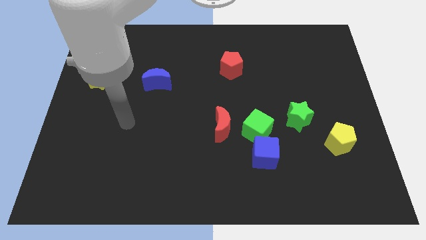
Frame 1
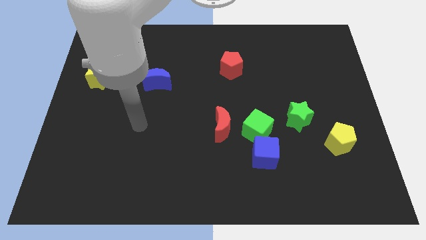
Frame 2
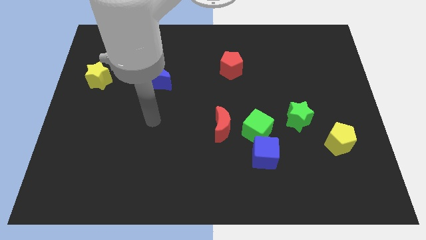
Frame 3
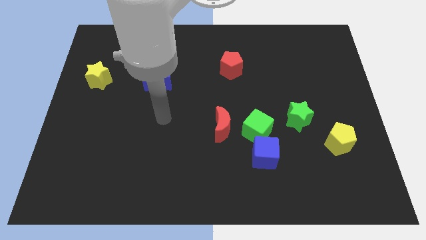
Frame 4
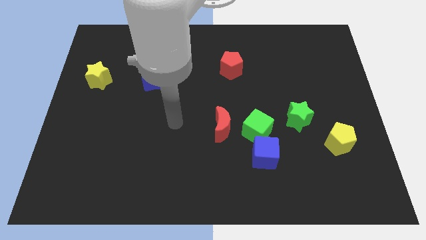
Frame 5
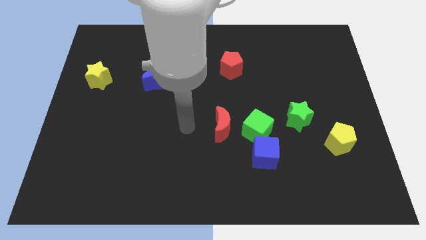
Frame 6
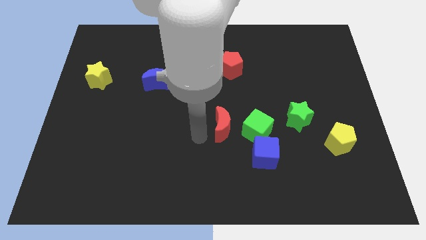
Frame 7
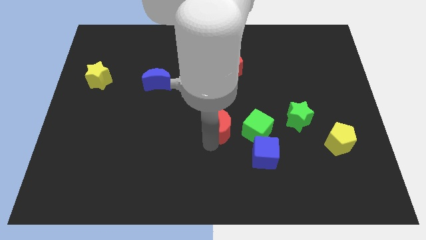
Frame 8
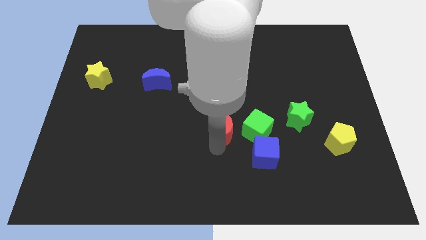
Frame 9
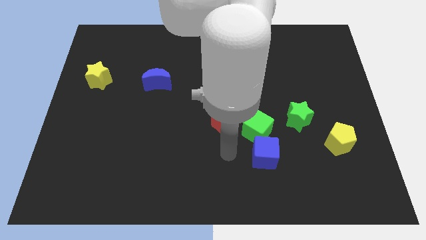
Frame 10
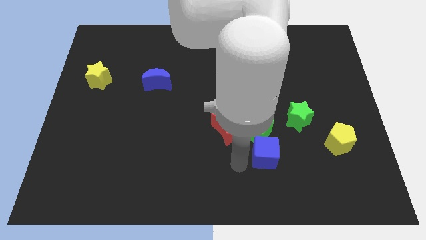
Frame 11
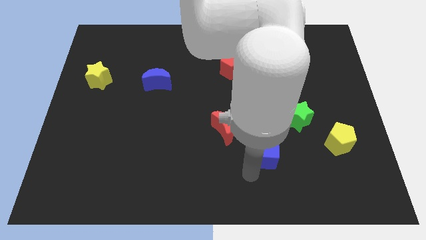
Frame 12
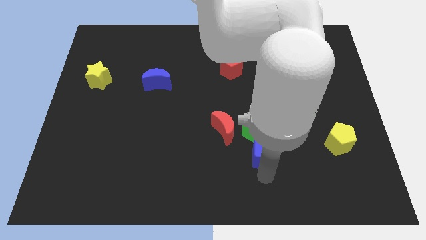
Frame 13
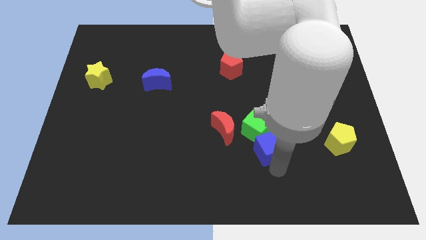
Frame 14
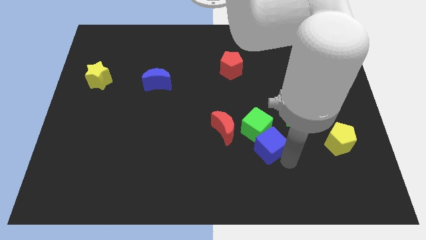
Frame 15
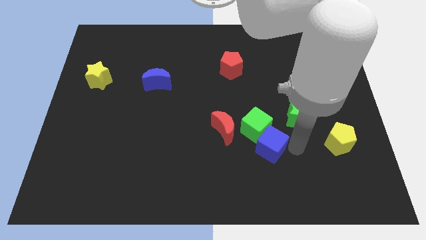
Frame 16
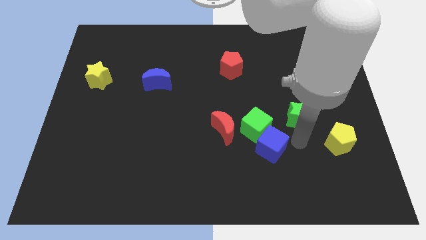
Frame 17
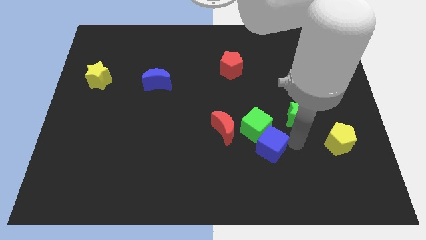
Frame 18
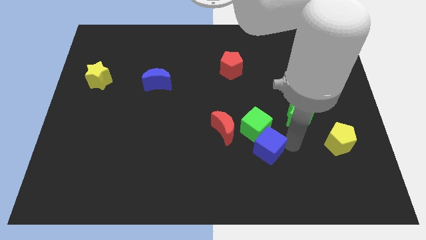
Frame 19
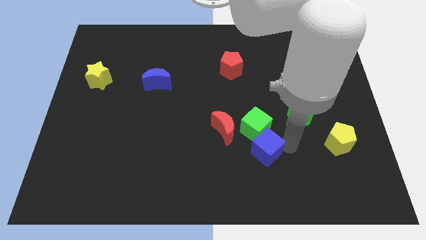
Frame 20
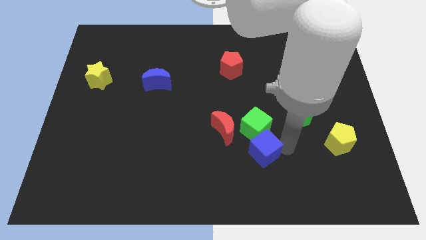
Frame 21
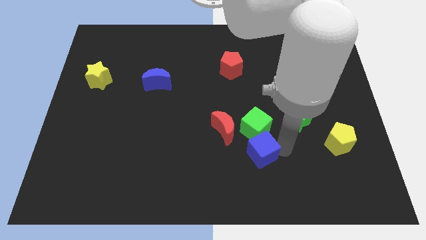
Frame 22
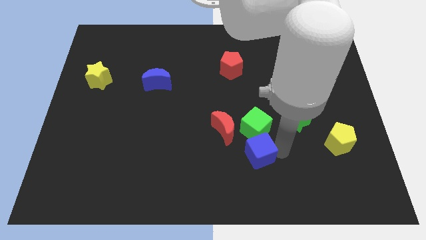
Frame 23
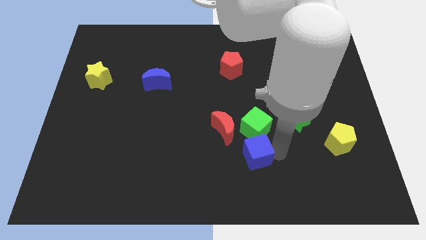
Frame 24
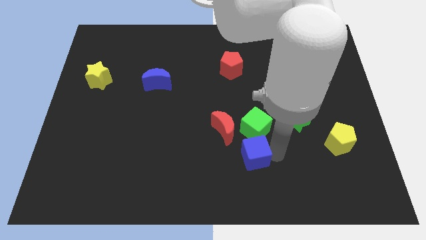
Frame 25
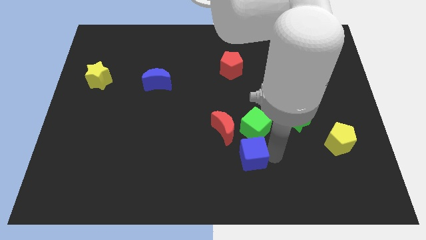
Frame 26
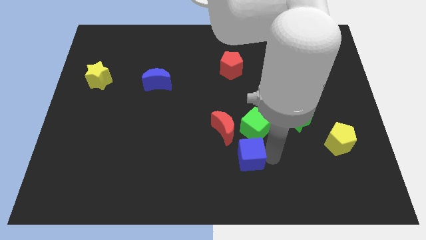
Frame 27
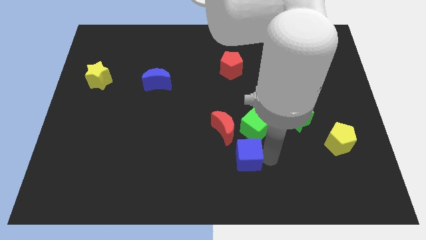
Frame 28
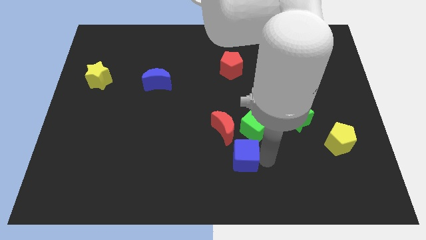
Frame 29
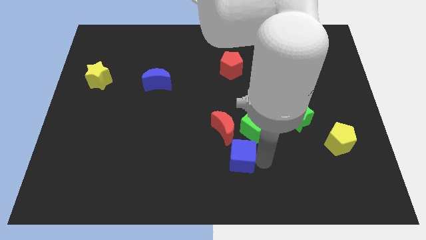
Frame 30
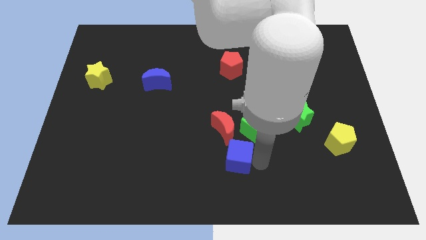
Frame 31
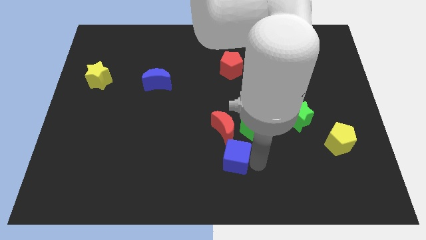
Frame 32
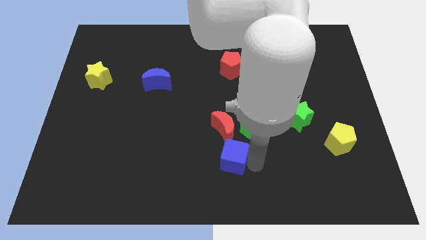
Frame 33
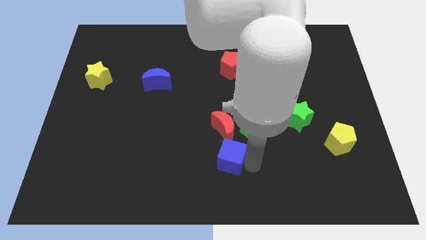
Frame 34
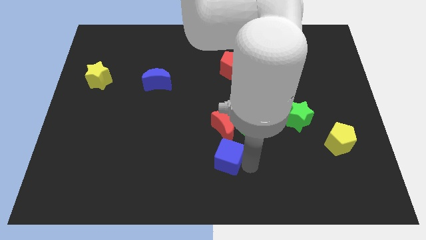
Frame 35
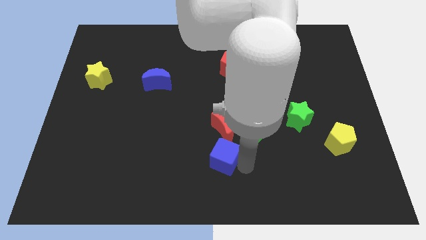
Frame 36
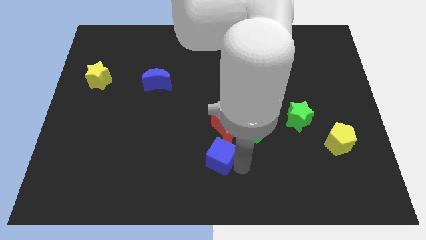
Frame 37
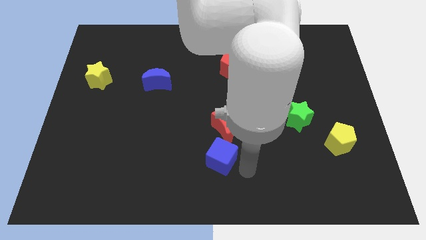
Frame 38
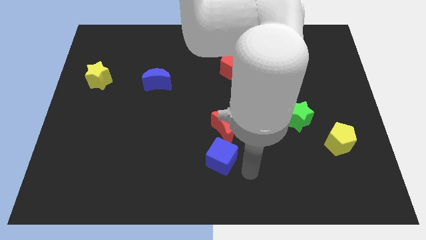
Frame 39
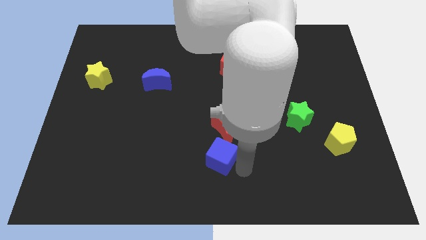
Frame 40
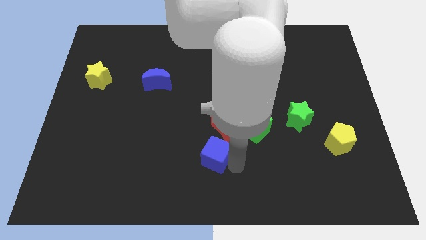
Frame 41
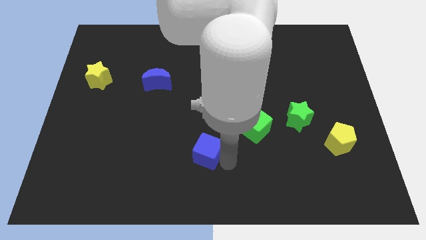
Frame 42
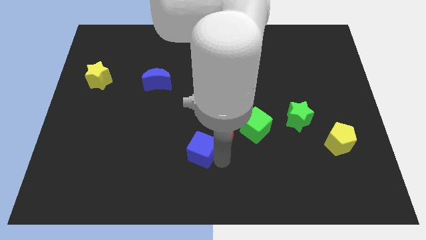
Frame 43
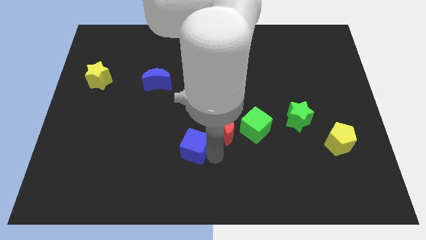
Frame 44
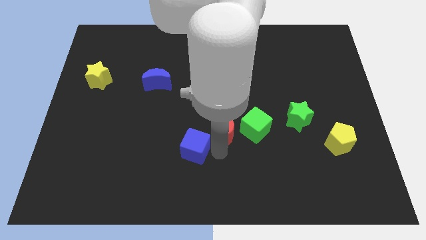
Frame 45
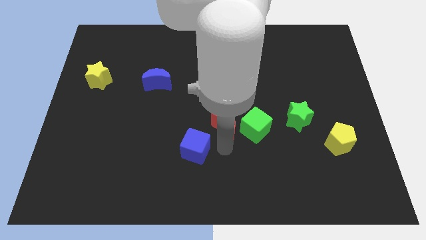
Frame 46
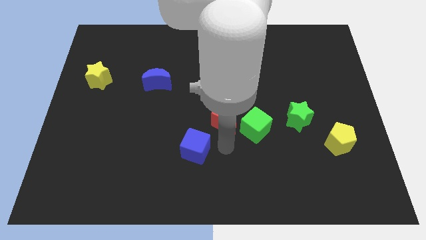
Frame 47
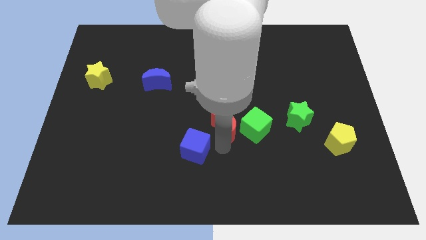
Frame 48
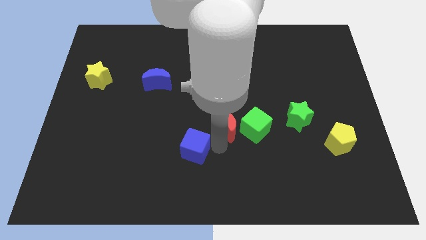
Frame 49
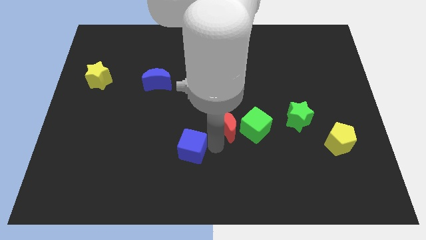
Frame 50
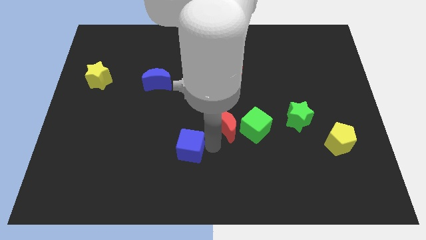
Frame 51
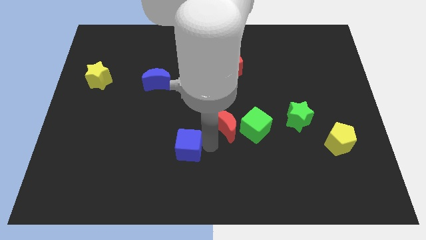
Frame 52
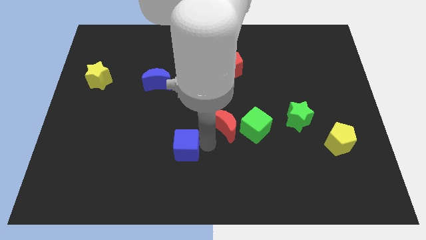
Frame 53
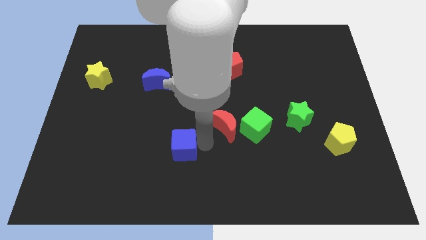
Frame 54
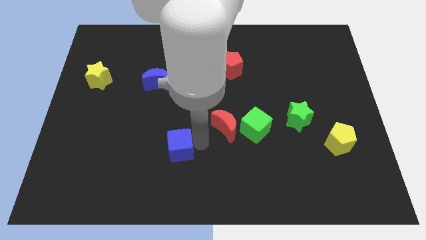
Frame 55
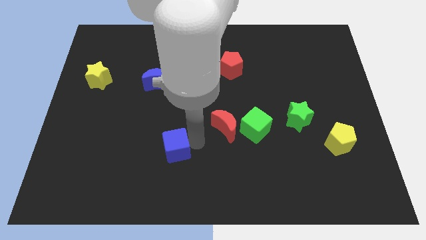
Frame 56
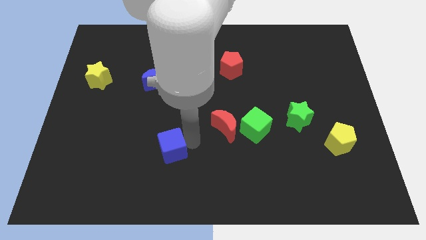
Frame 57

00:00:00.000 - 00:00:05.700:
slide the blue cube to the left

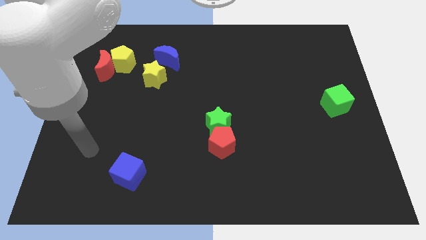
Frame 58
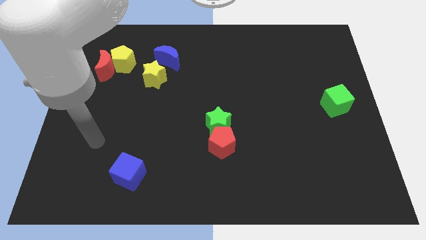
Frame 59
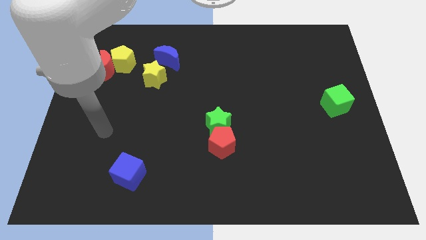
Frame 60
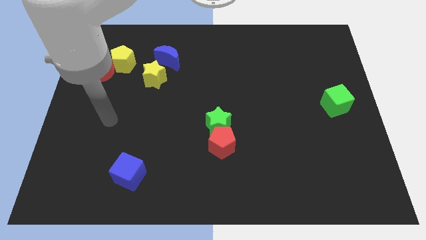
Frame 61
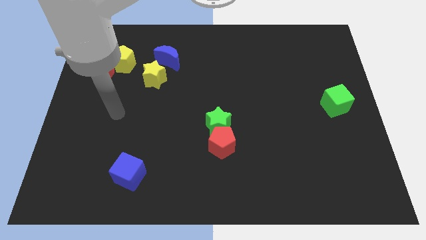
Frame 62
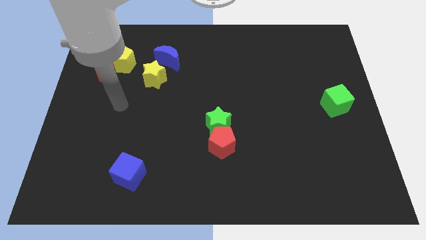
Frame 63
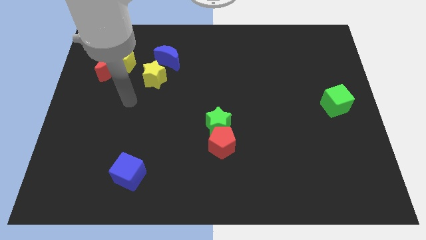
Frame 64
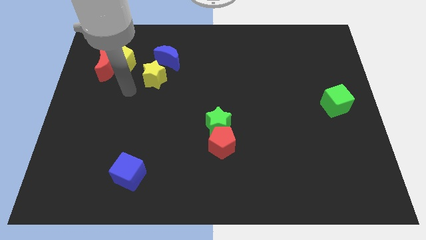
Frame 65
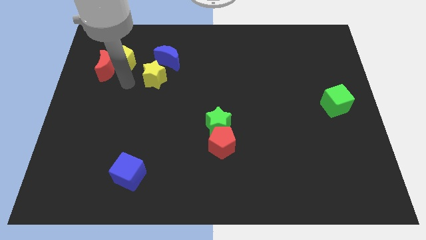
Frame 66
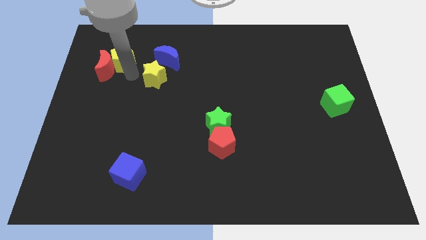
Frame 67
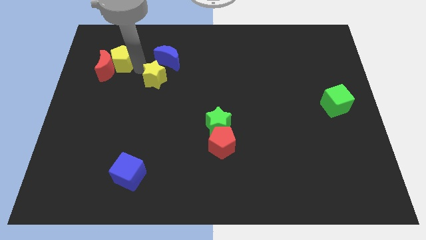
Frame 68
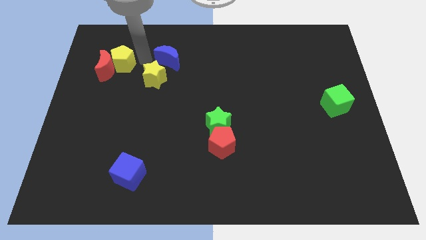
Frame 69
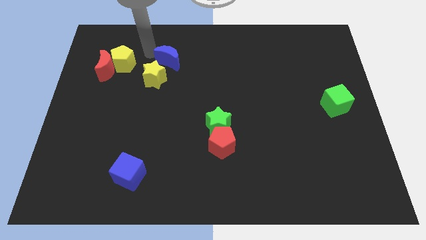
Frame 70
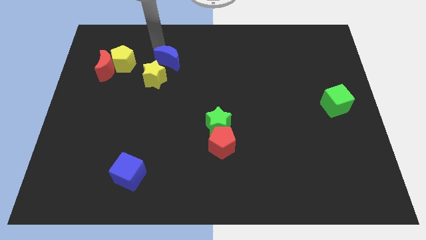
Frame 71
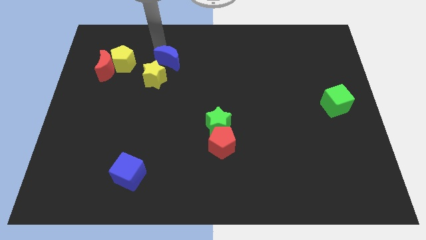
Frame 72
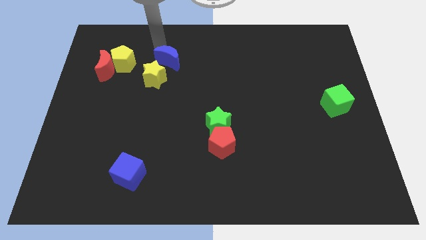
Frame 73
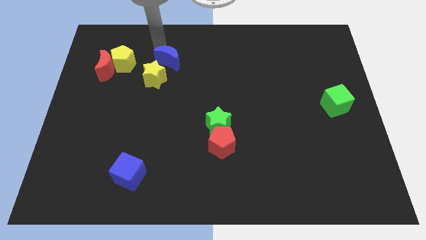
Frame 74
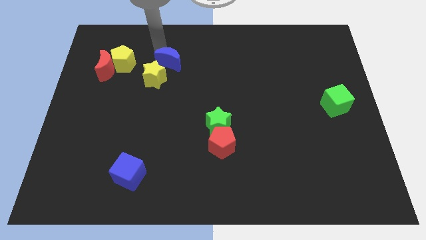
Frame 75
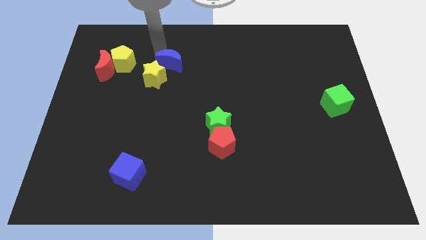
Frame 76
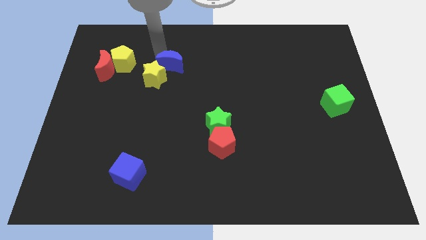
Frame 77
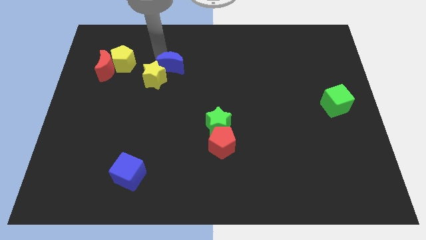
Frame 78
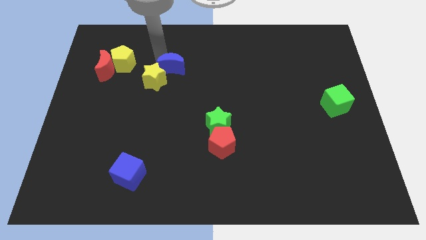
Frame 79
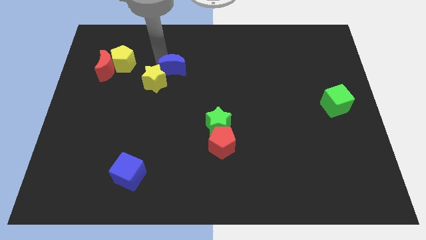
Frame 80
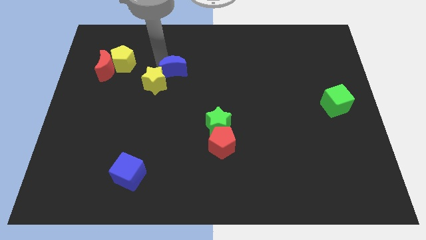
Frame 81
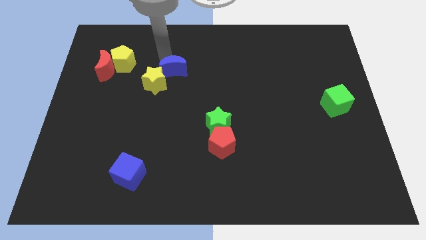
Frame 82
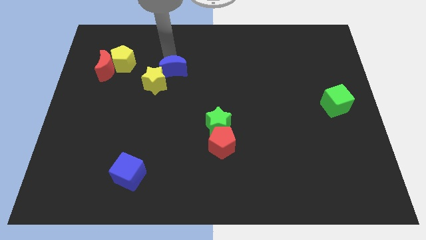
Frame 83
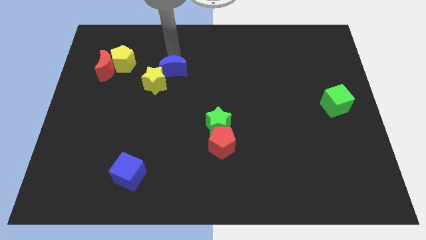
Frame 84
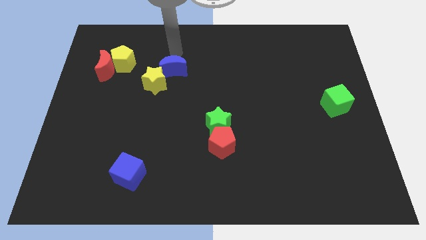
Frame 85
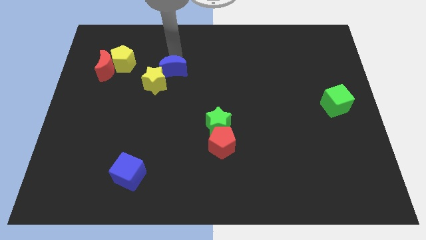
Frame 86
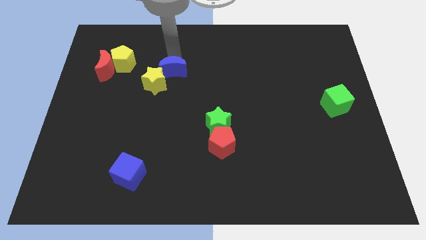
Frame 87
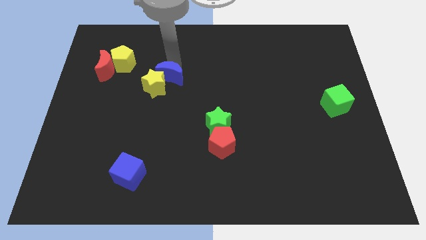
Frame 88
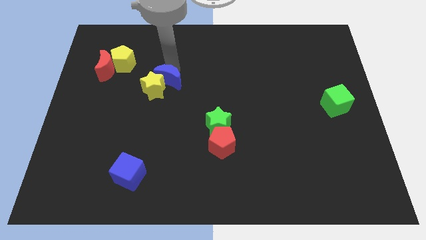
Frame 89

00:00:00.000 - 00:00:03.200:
slide the blue moon a bit downwards
